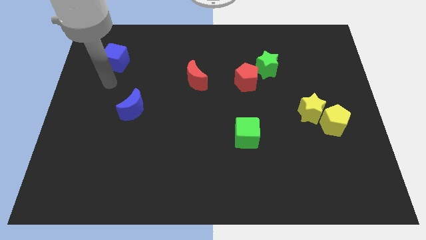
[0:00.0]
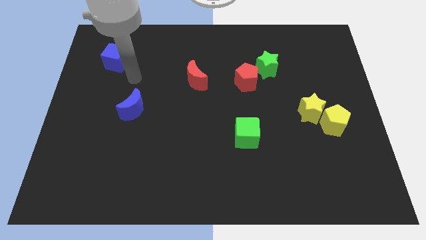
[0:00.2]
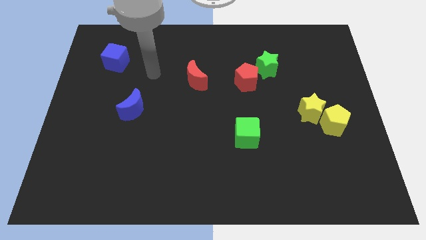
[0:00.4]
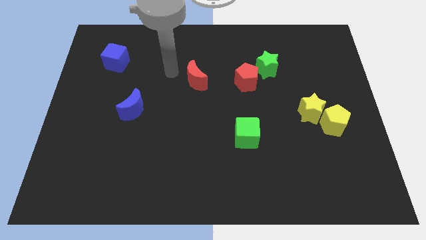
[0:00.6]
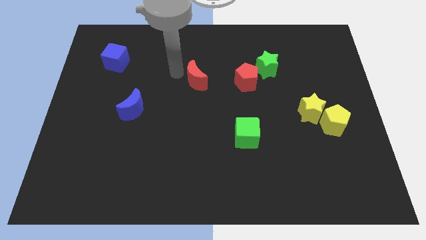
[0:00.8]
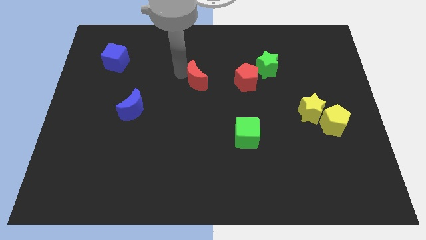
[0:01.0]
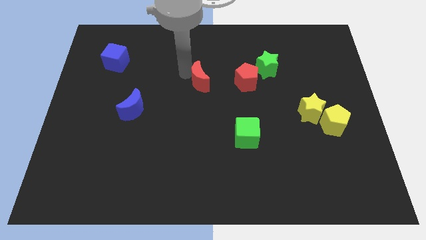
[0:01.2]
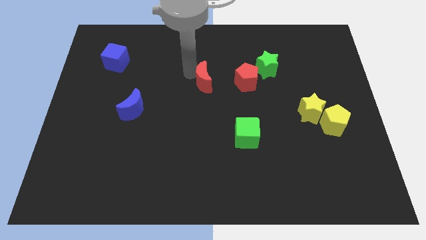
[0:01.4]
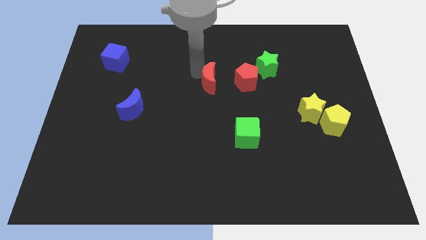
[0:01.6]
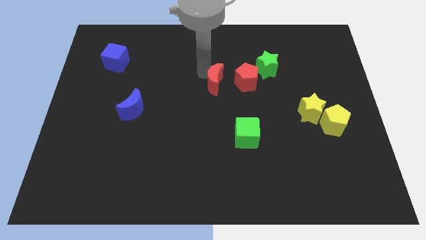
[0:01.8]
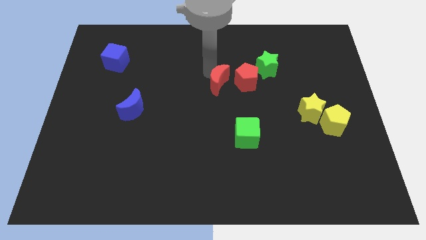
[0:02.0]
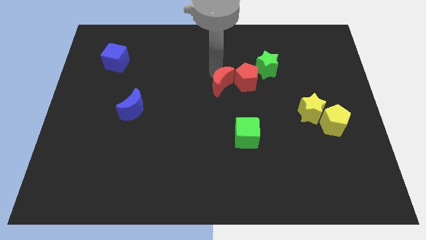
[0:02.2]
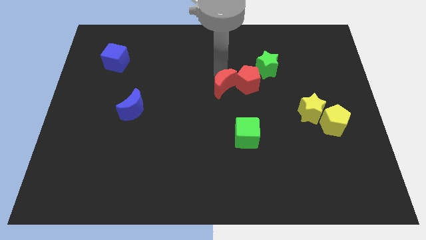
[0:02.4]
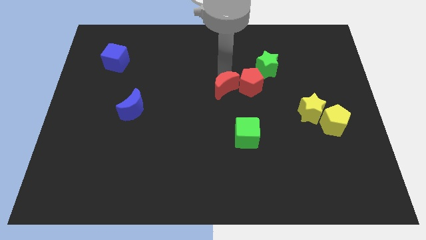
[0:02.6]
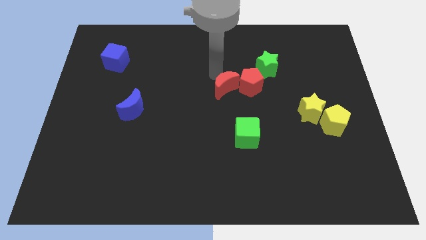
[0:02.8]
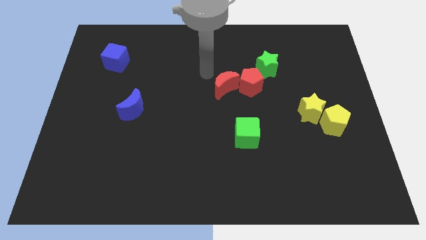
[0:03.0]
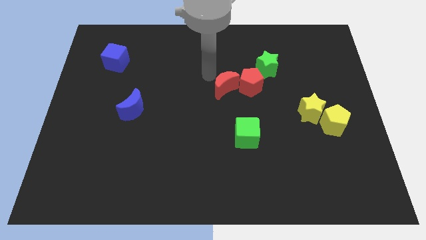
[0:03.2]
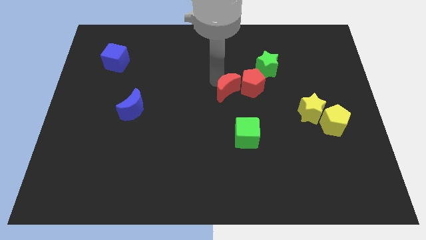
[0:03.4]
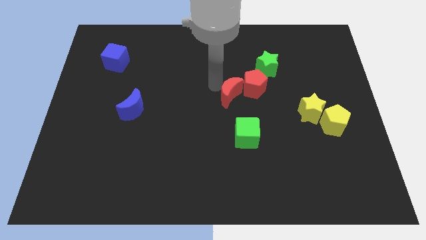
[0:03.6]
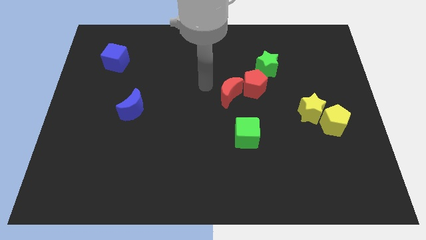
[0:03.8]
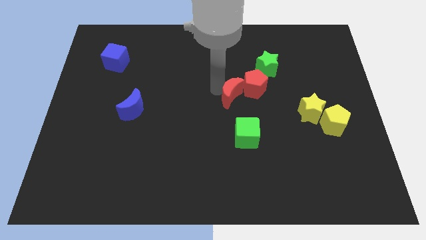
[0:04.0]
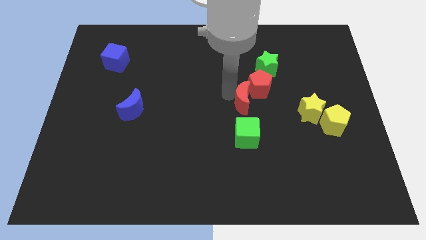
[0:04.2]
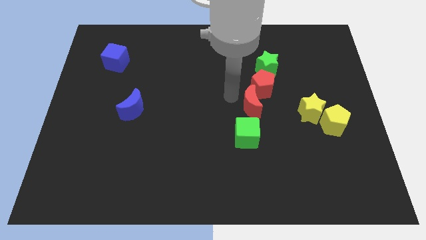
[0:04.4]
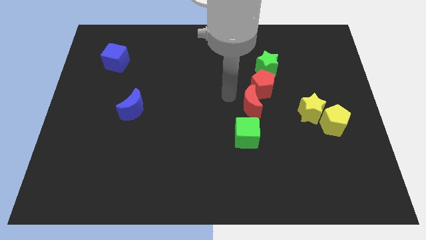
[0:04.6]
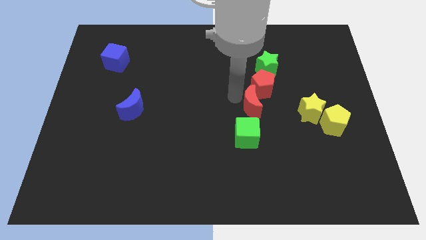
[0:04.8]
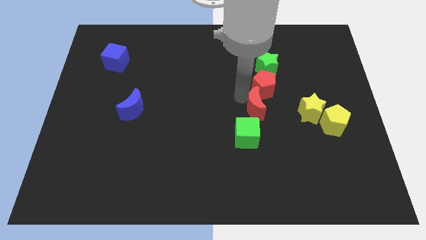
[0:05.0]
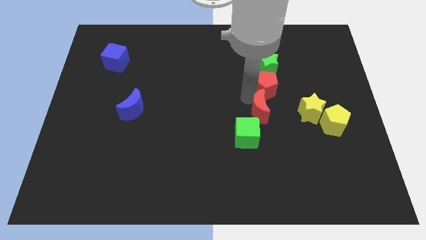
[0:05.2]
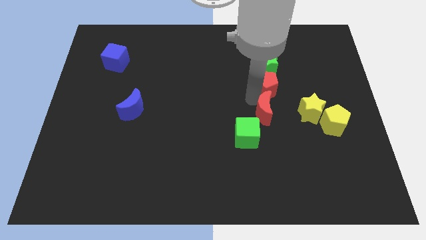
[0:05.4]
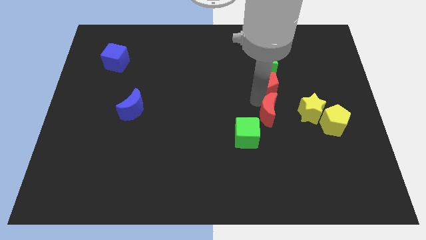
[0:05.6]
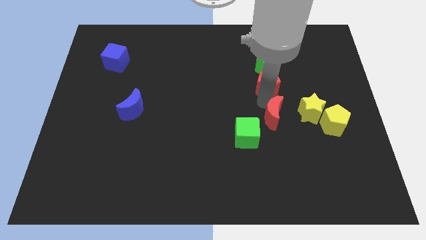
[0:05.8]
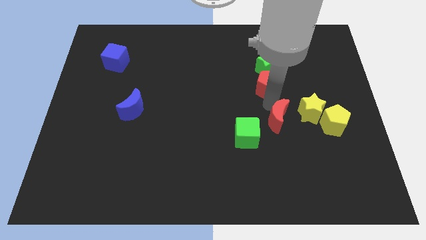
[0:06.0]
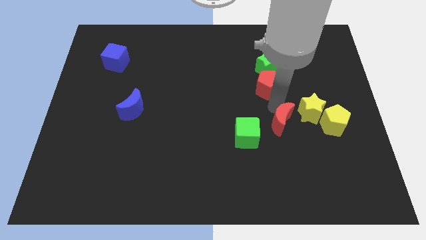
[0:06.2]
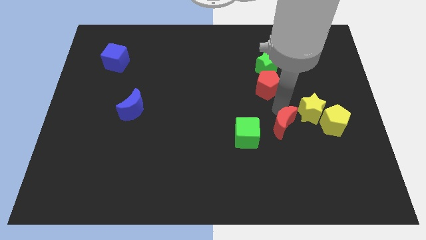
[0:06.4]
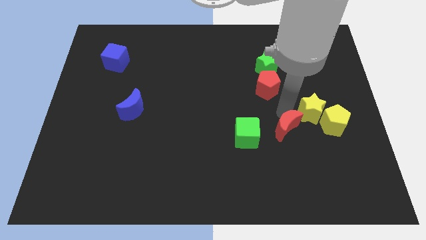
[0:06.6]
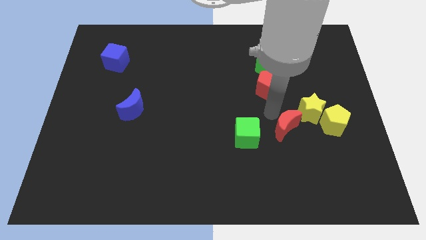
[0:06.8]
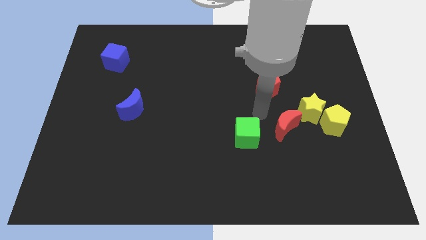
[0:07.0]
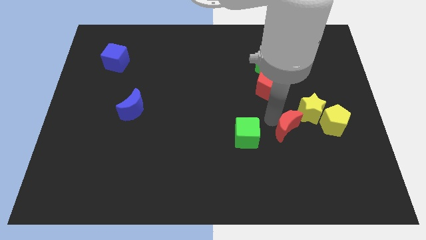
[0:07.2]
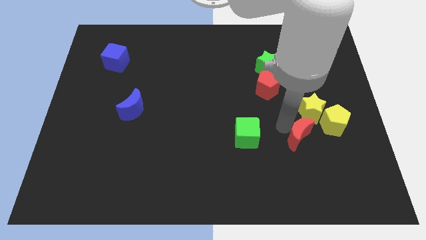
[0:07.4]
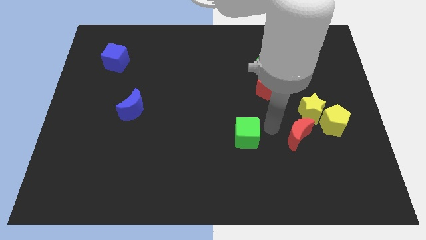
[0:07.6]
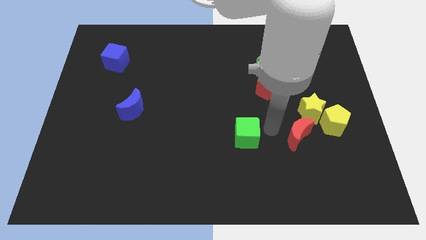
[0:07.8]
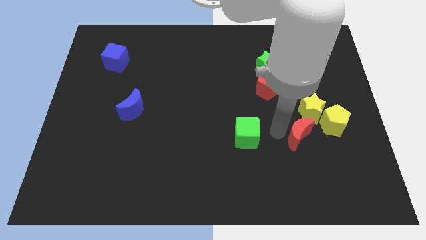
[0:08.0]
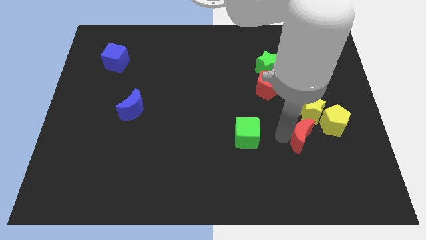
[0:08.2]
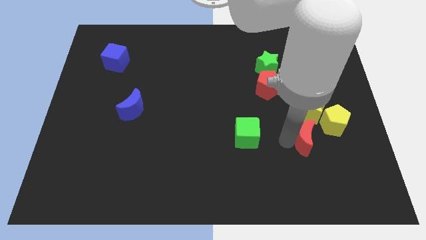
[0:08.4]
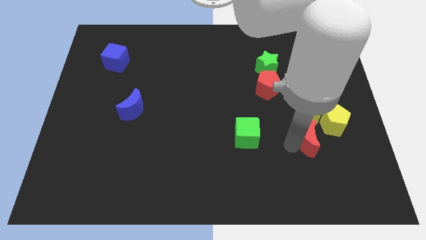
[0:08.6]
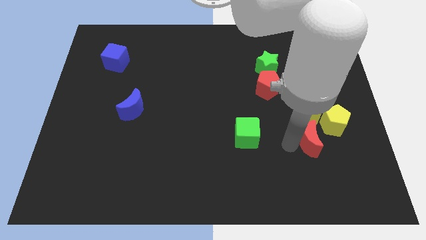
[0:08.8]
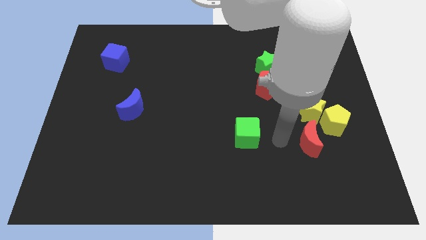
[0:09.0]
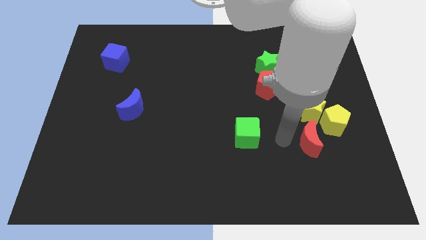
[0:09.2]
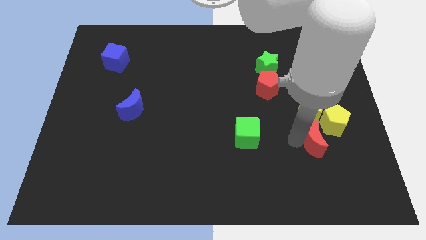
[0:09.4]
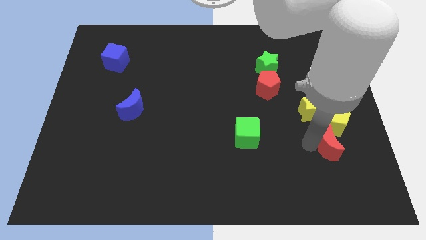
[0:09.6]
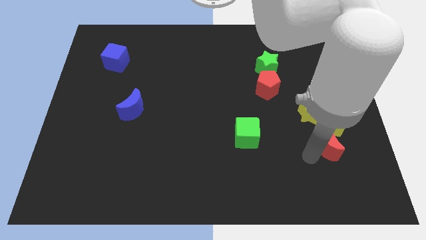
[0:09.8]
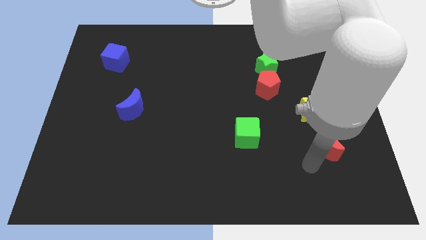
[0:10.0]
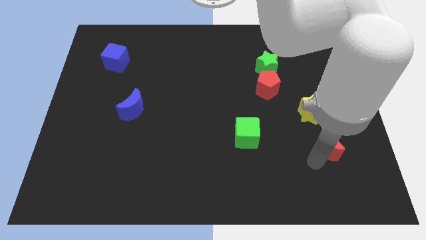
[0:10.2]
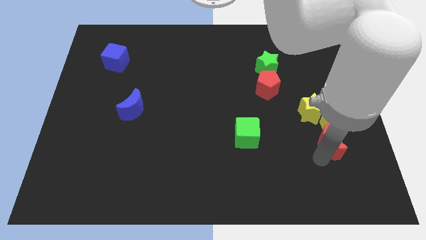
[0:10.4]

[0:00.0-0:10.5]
push the red moon to the bottom right side of the yellow star

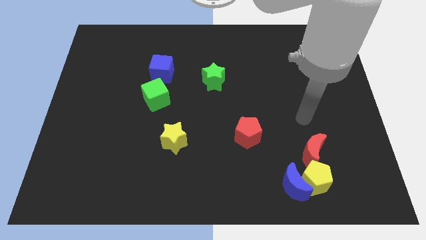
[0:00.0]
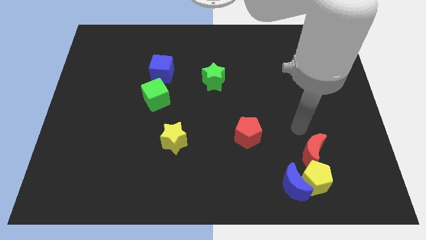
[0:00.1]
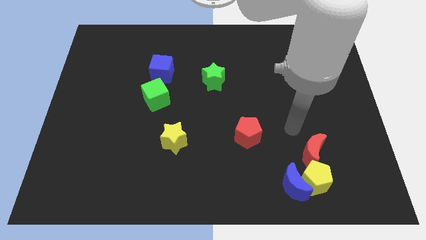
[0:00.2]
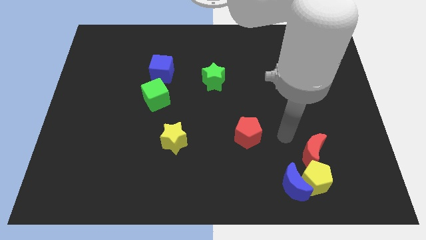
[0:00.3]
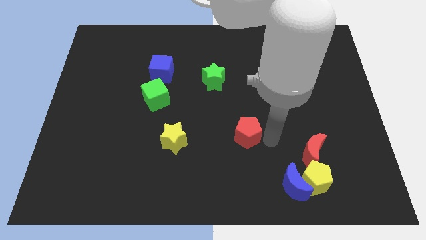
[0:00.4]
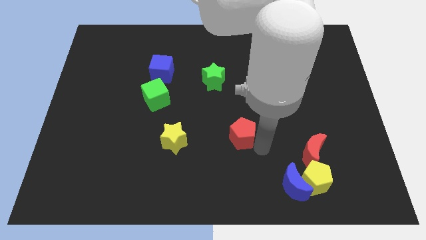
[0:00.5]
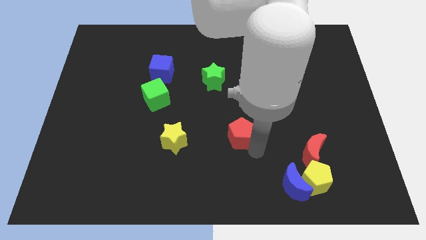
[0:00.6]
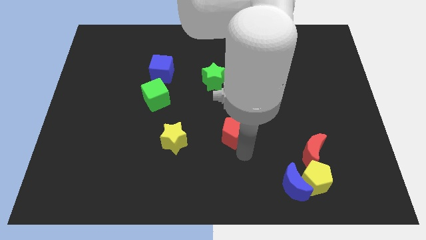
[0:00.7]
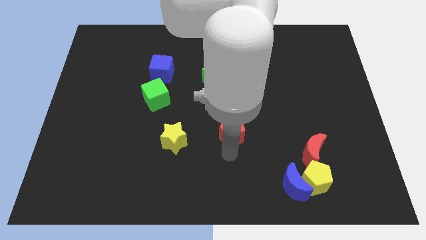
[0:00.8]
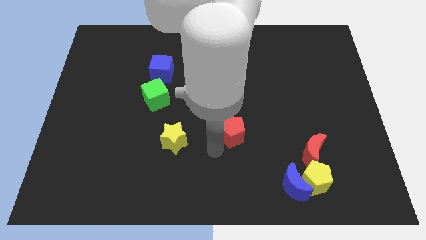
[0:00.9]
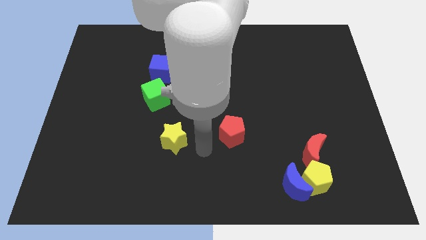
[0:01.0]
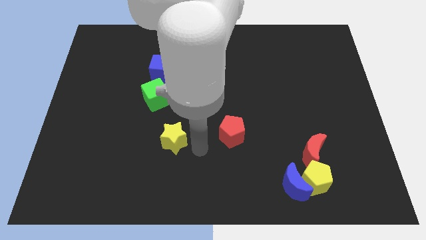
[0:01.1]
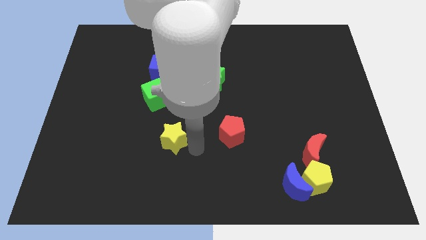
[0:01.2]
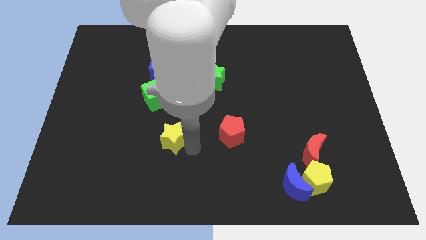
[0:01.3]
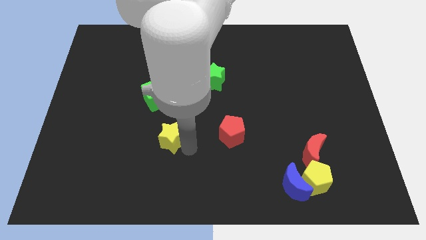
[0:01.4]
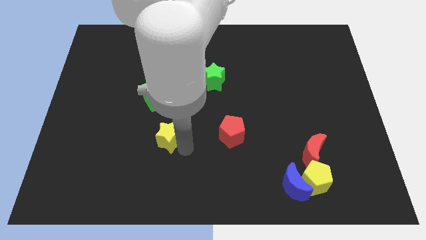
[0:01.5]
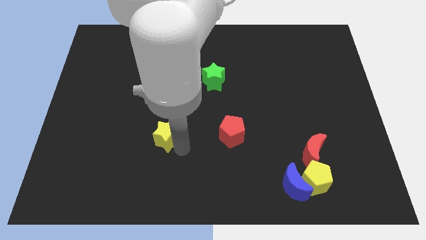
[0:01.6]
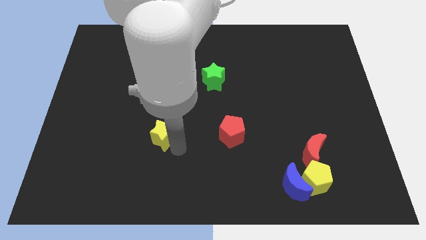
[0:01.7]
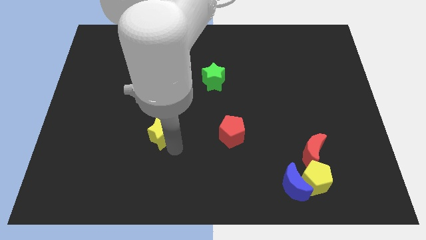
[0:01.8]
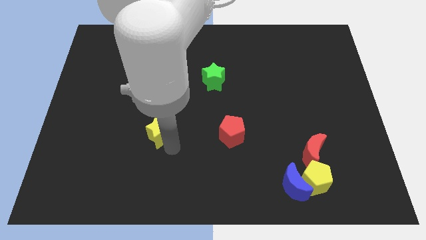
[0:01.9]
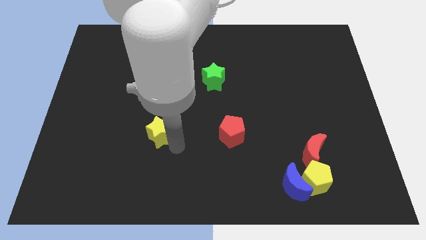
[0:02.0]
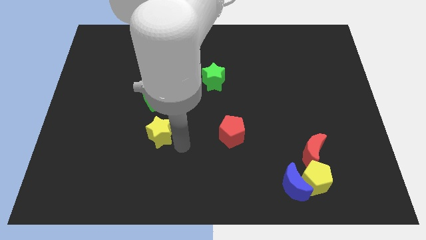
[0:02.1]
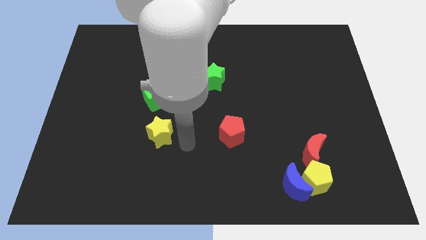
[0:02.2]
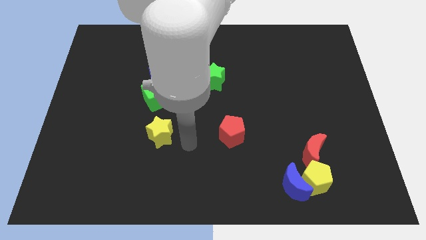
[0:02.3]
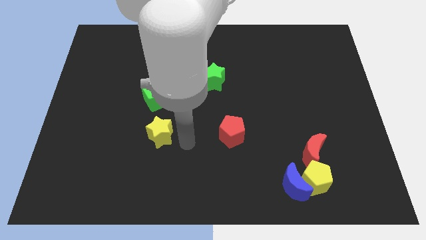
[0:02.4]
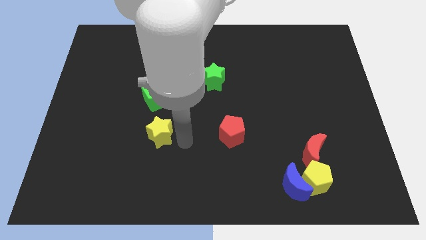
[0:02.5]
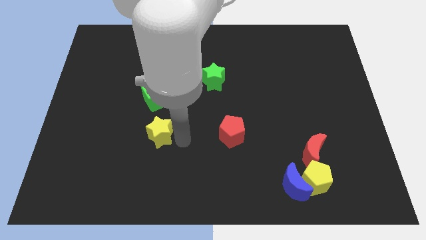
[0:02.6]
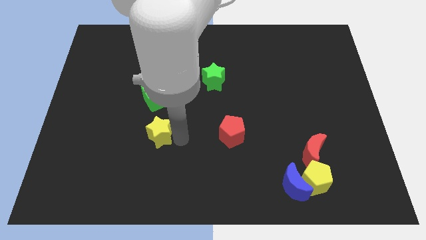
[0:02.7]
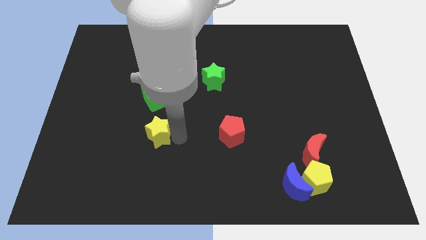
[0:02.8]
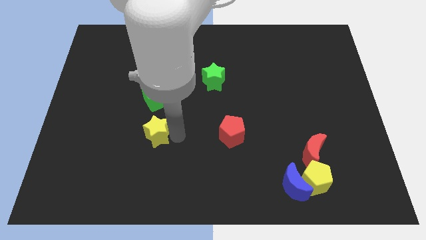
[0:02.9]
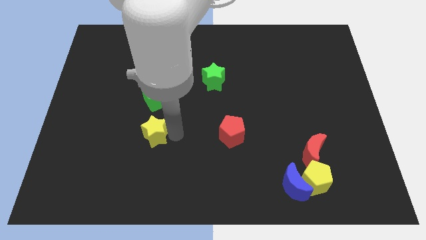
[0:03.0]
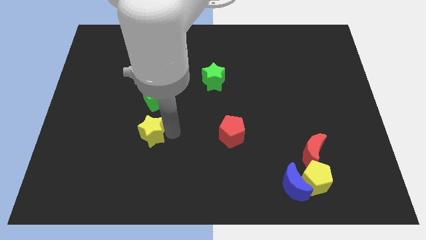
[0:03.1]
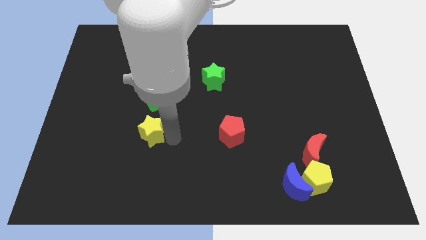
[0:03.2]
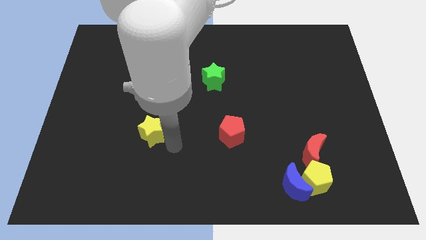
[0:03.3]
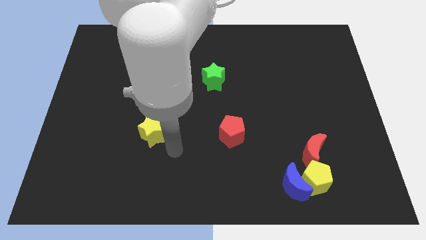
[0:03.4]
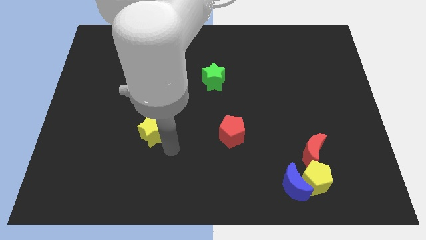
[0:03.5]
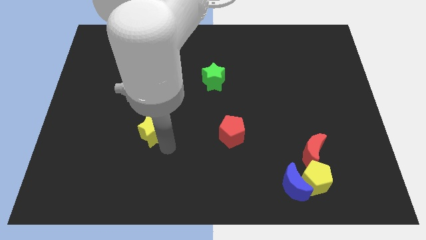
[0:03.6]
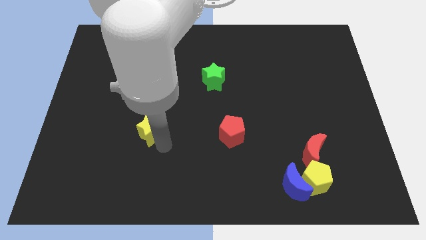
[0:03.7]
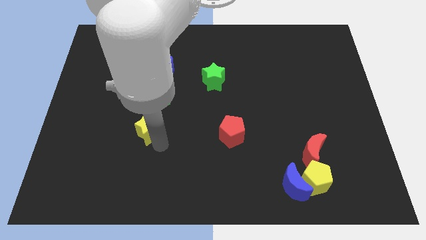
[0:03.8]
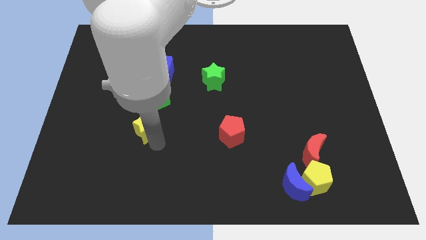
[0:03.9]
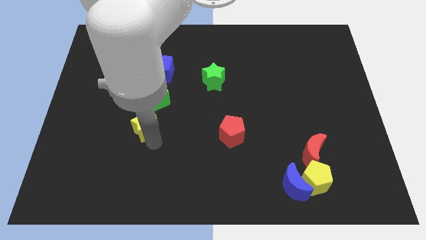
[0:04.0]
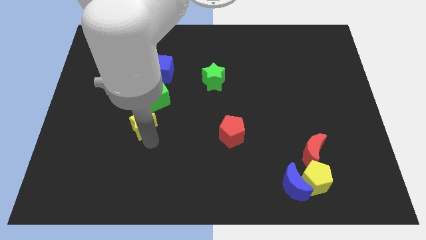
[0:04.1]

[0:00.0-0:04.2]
slide the yellow star to the bottom left side of the green cube
